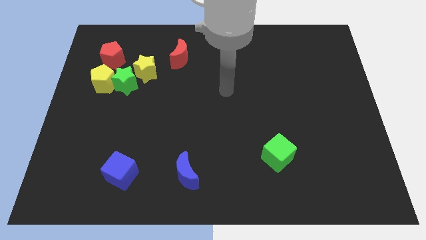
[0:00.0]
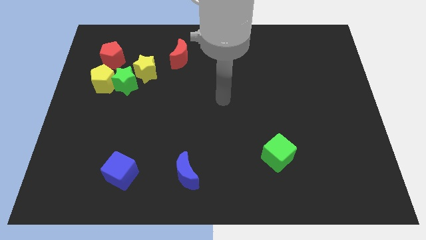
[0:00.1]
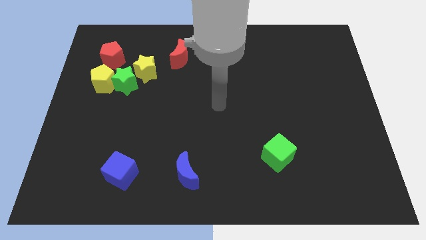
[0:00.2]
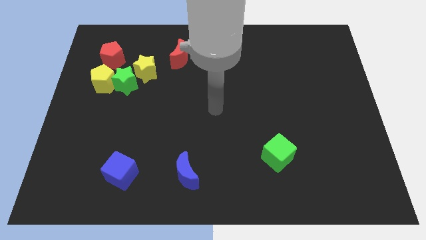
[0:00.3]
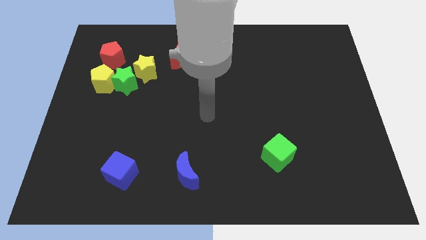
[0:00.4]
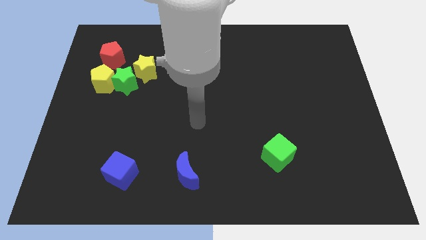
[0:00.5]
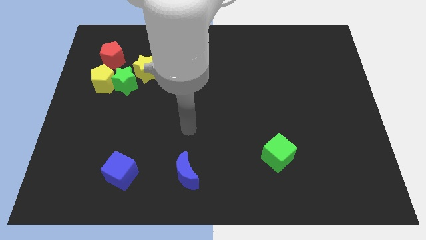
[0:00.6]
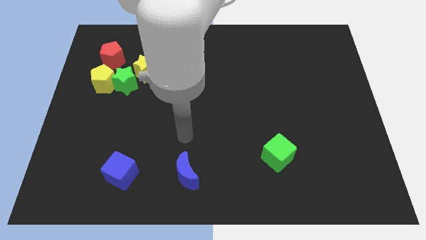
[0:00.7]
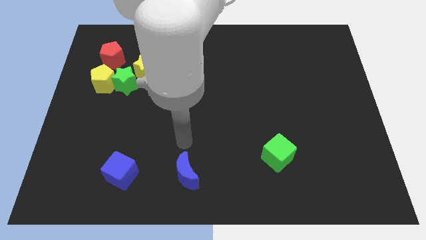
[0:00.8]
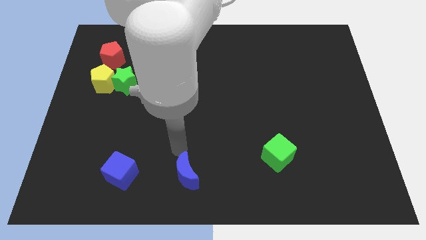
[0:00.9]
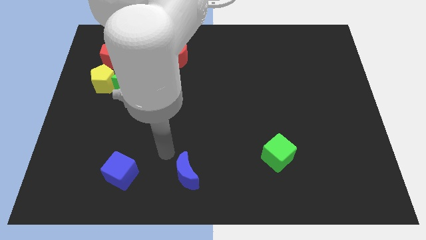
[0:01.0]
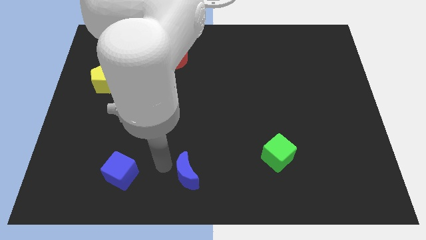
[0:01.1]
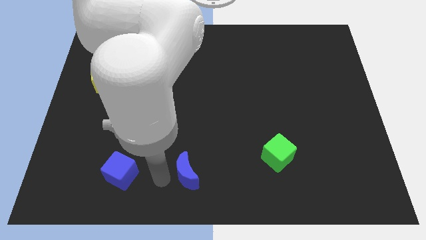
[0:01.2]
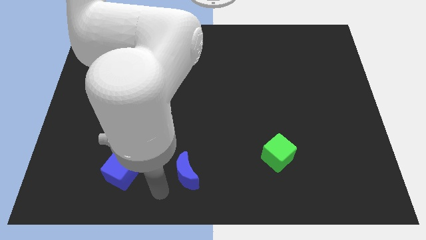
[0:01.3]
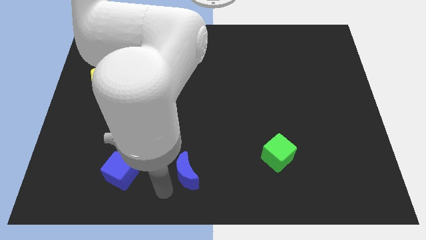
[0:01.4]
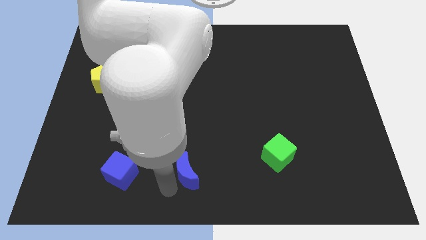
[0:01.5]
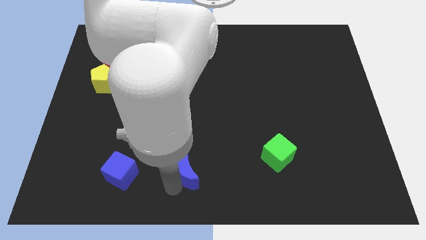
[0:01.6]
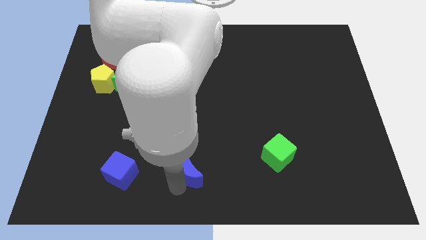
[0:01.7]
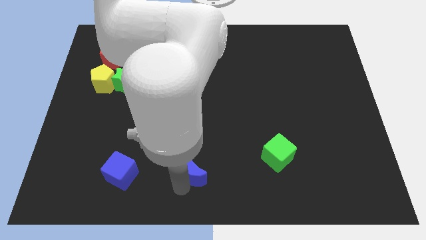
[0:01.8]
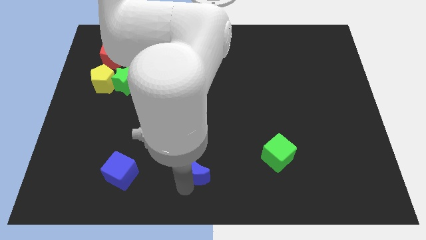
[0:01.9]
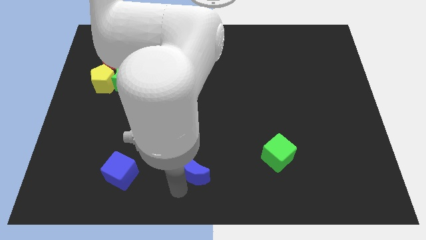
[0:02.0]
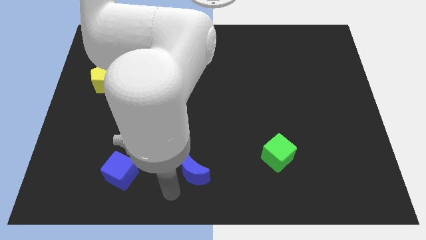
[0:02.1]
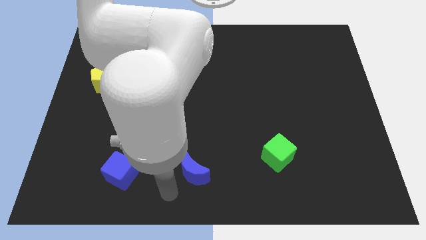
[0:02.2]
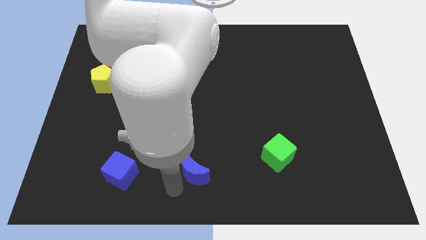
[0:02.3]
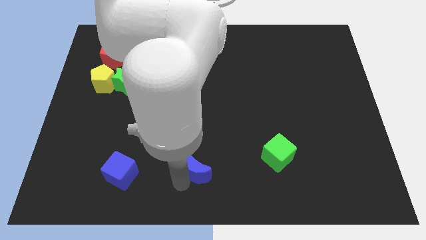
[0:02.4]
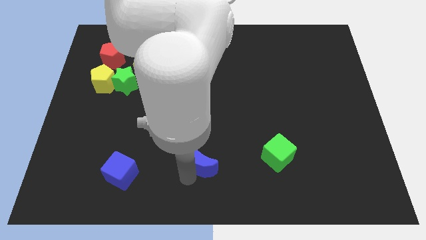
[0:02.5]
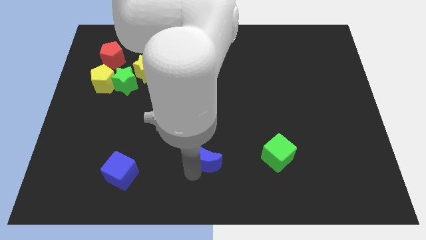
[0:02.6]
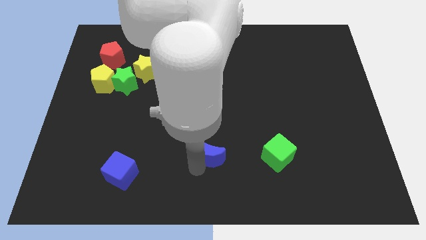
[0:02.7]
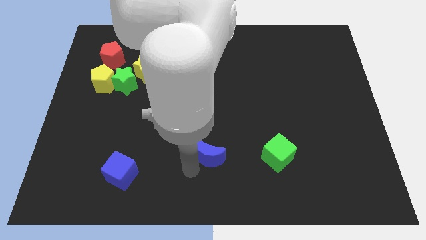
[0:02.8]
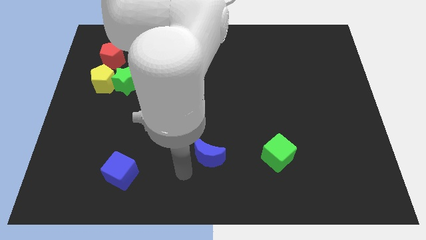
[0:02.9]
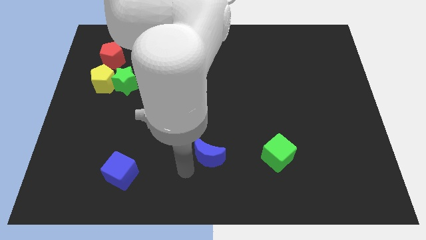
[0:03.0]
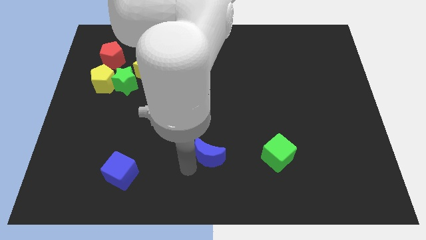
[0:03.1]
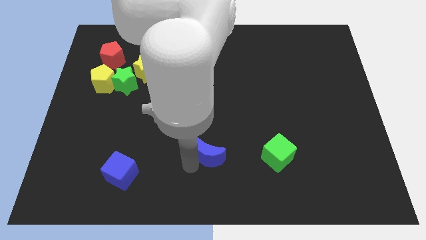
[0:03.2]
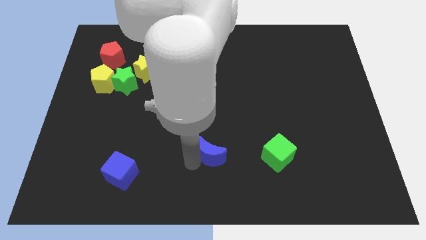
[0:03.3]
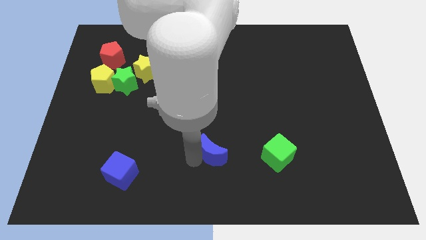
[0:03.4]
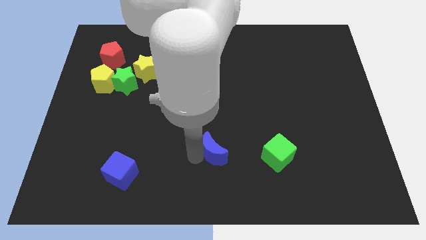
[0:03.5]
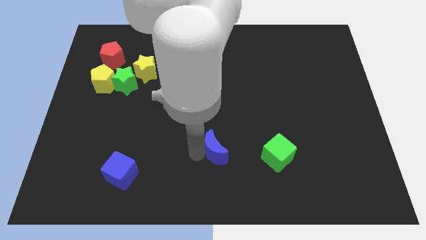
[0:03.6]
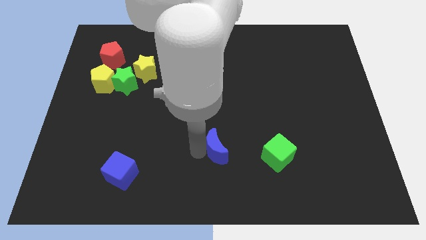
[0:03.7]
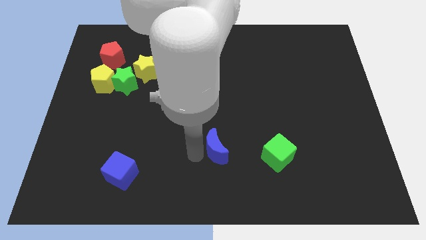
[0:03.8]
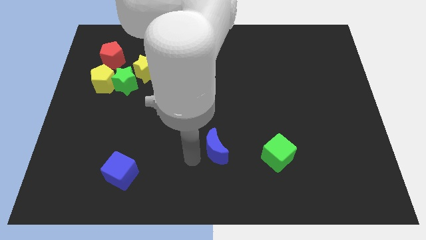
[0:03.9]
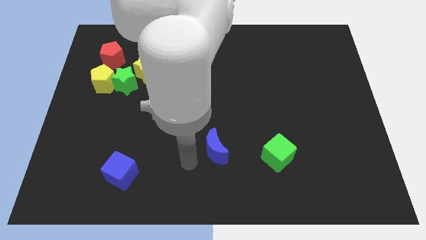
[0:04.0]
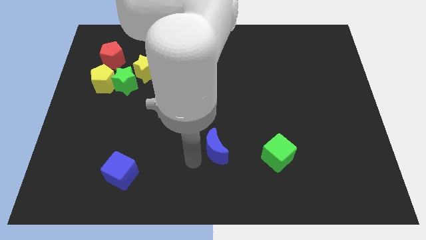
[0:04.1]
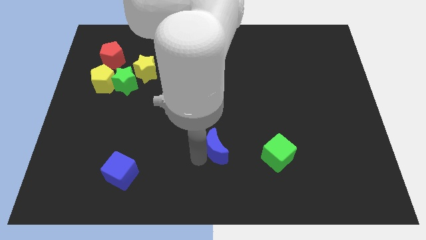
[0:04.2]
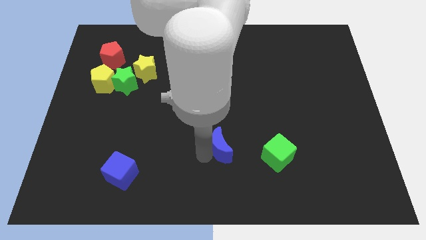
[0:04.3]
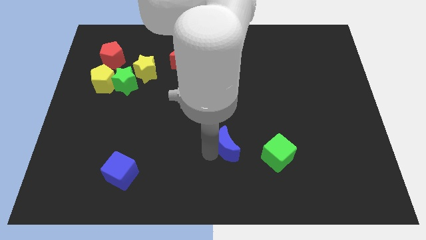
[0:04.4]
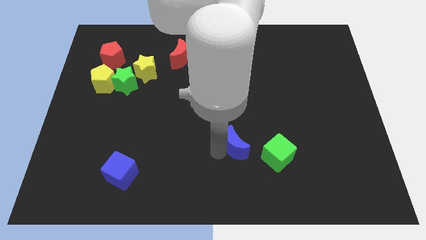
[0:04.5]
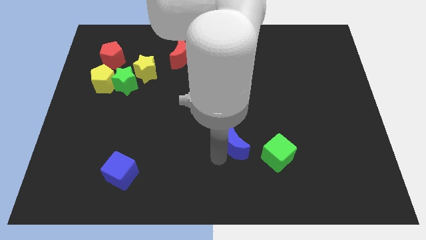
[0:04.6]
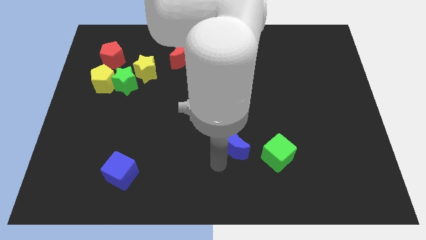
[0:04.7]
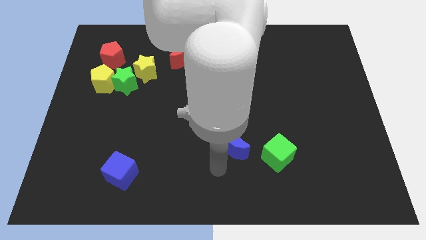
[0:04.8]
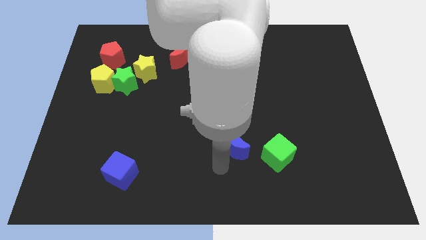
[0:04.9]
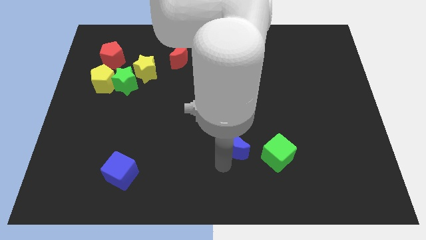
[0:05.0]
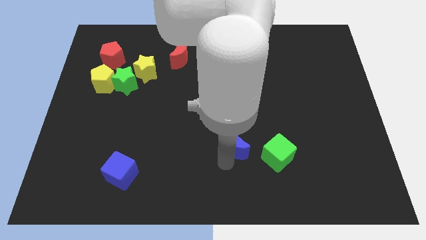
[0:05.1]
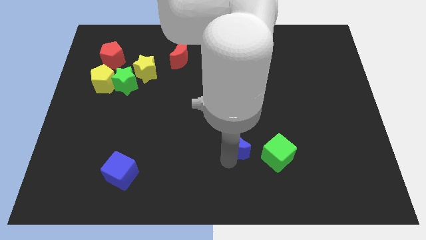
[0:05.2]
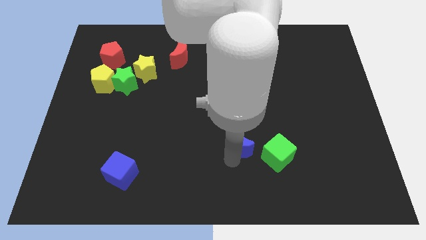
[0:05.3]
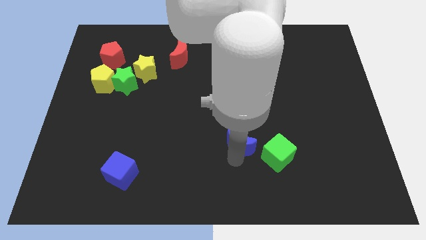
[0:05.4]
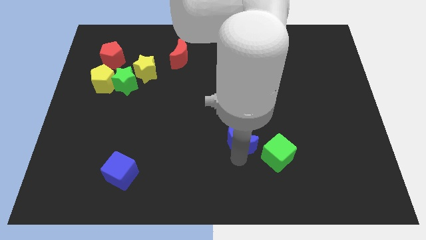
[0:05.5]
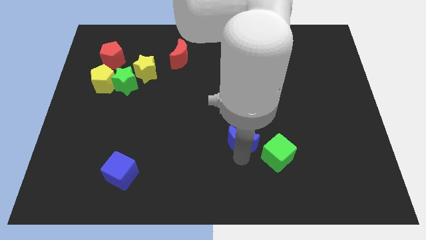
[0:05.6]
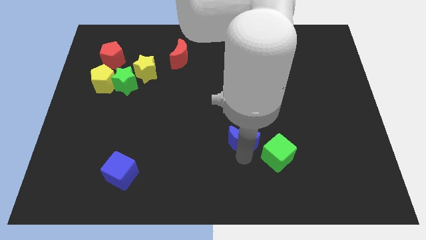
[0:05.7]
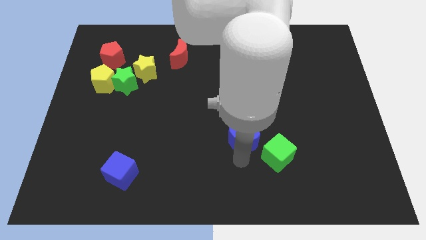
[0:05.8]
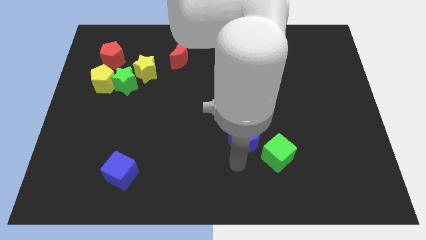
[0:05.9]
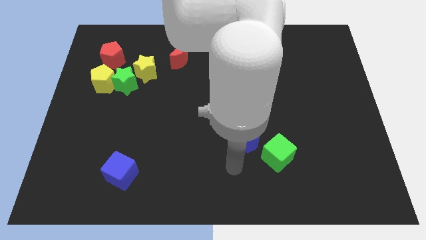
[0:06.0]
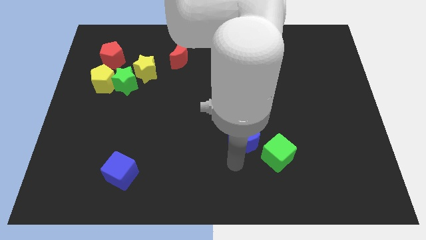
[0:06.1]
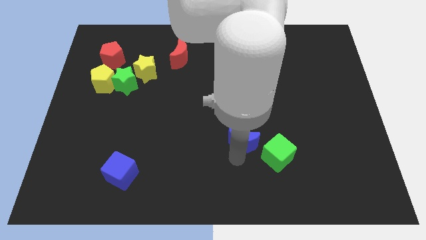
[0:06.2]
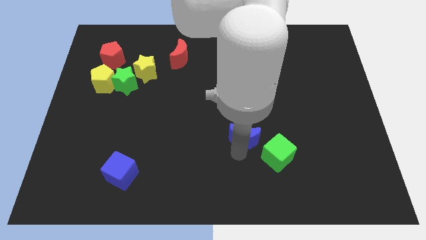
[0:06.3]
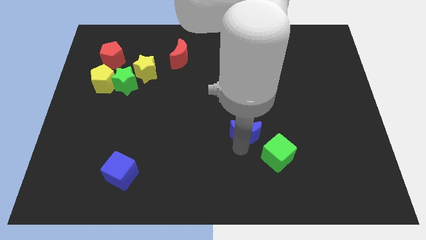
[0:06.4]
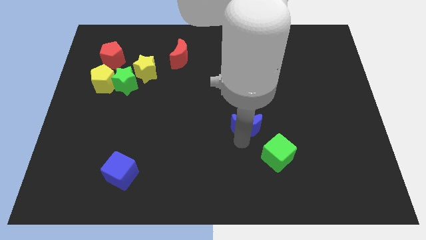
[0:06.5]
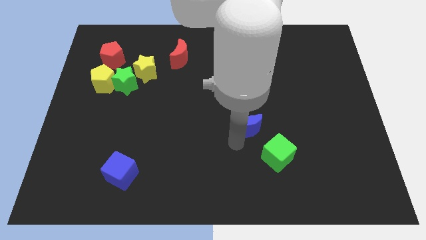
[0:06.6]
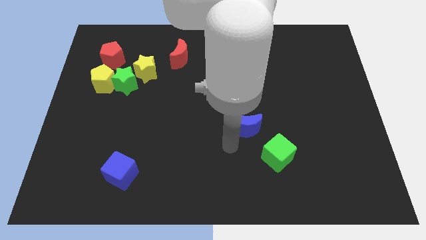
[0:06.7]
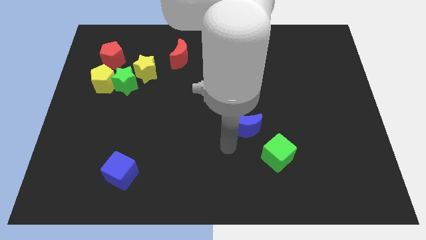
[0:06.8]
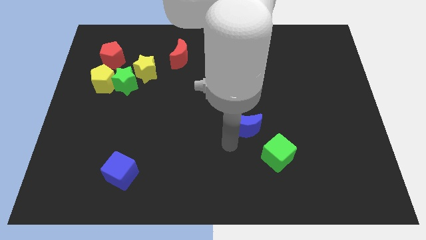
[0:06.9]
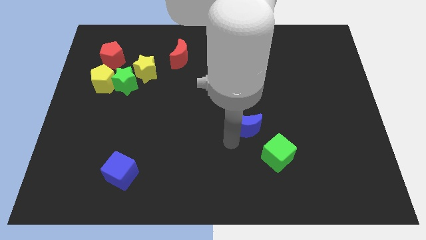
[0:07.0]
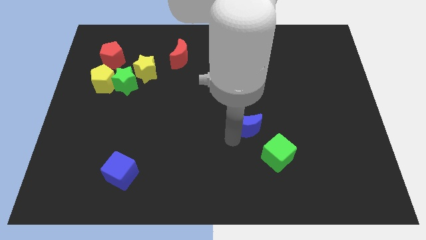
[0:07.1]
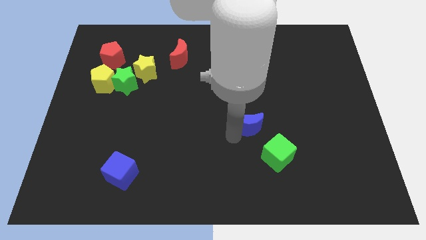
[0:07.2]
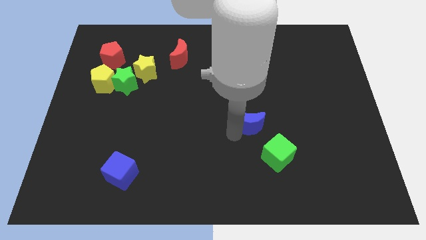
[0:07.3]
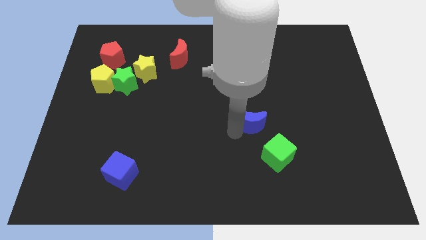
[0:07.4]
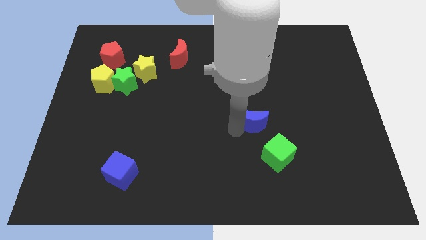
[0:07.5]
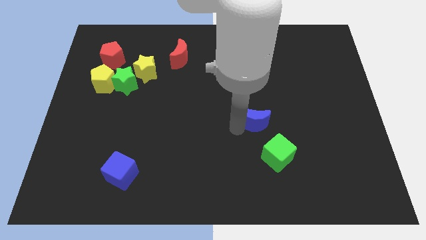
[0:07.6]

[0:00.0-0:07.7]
move the blue moon upwards and right diagonally
